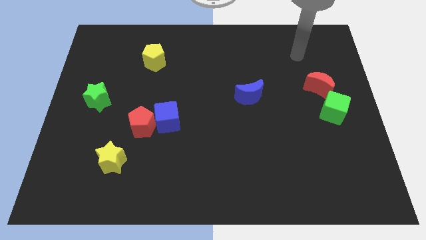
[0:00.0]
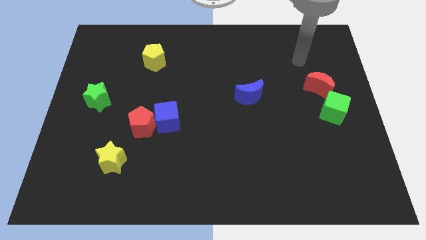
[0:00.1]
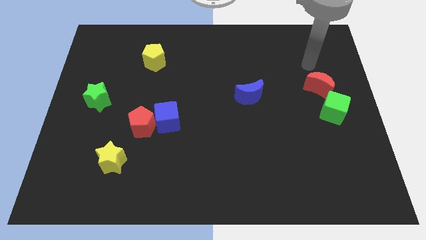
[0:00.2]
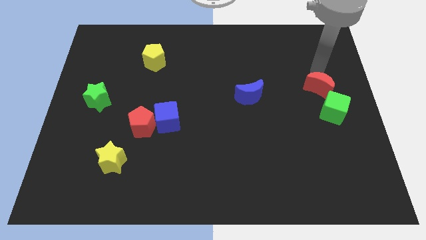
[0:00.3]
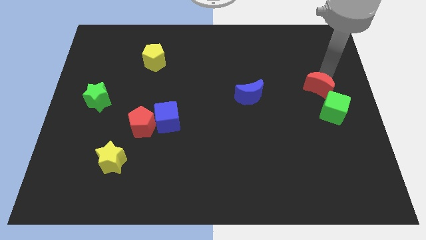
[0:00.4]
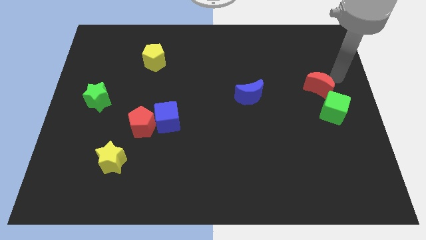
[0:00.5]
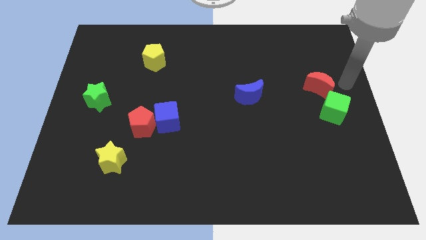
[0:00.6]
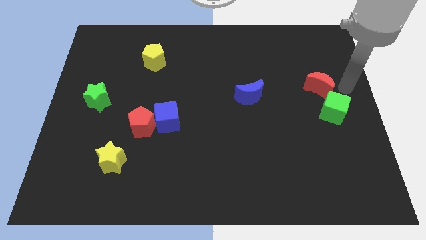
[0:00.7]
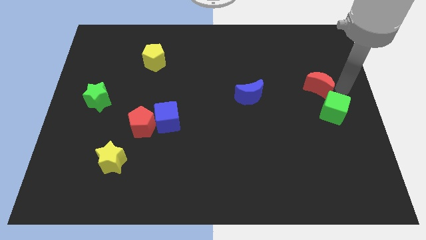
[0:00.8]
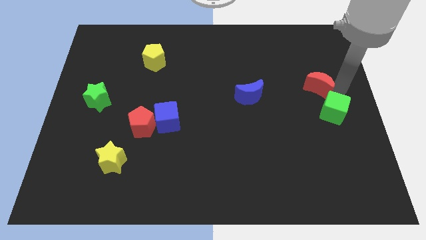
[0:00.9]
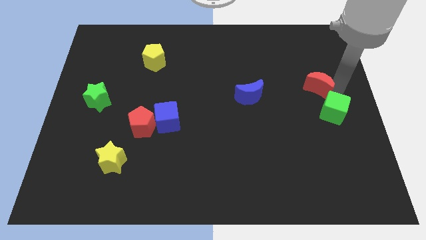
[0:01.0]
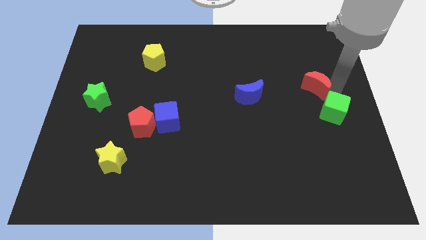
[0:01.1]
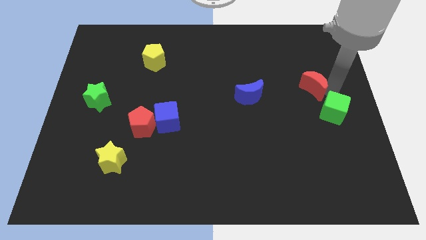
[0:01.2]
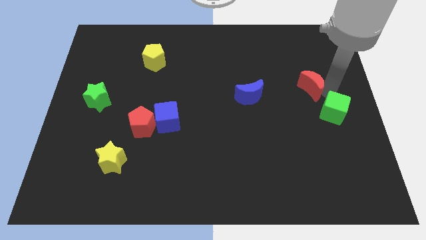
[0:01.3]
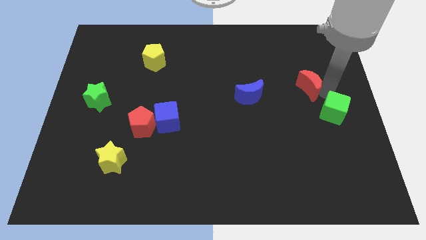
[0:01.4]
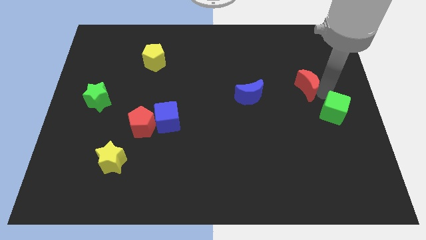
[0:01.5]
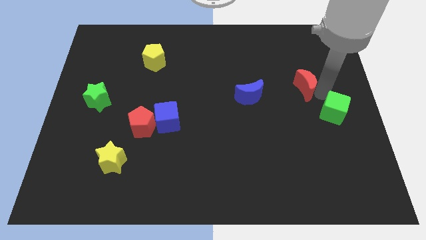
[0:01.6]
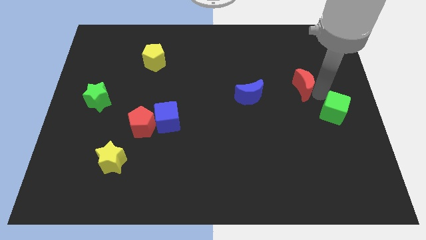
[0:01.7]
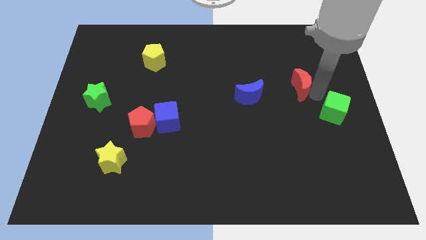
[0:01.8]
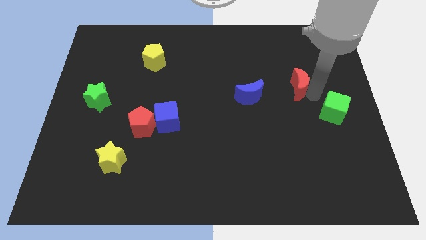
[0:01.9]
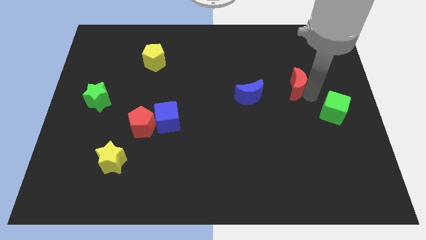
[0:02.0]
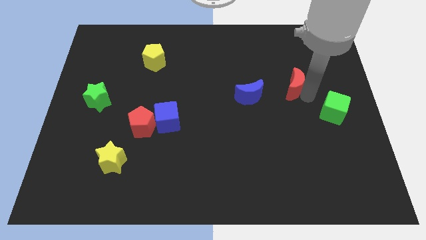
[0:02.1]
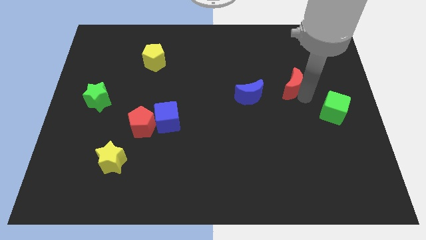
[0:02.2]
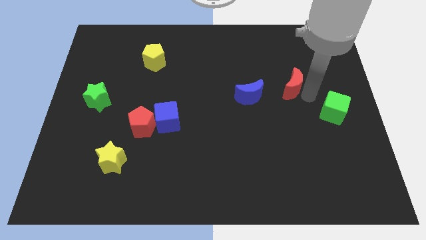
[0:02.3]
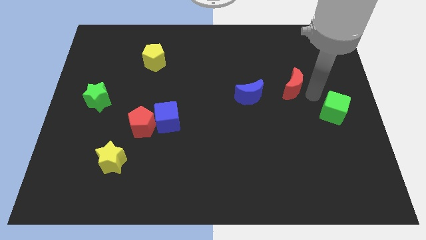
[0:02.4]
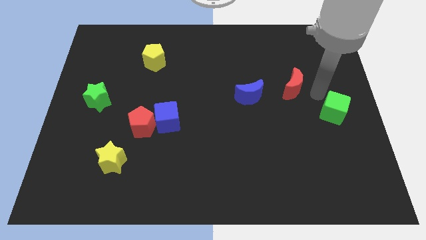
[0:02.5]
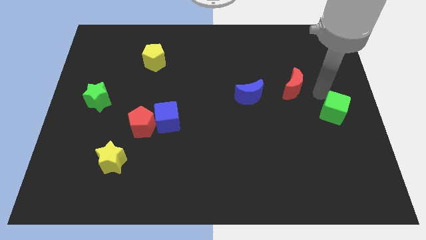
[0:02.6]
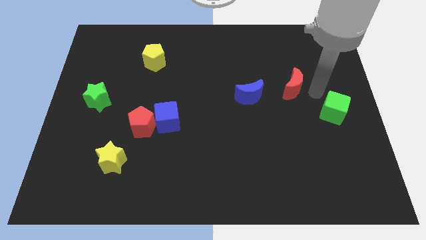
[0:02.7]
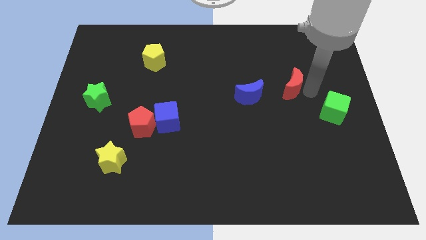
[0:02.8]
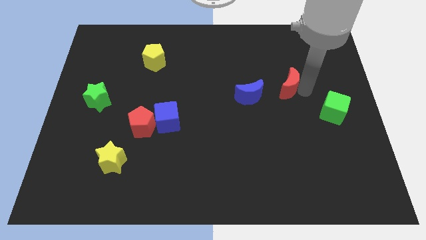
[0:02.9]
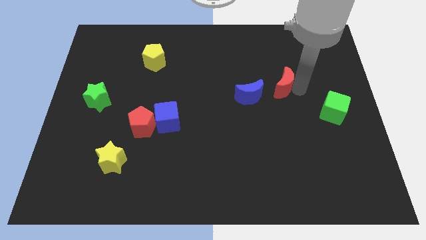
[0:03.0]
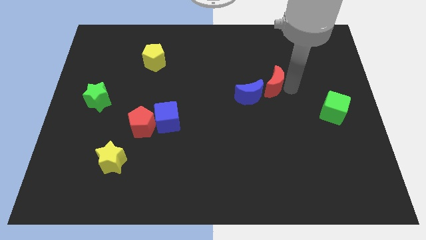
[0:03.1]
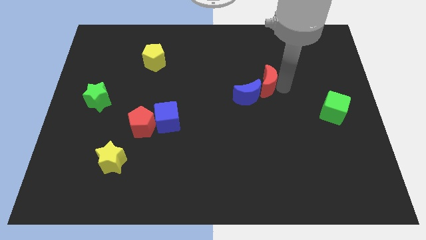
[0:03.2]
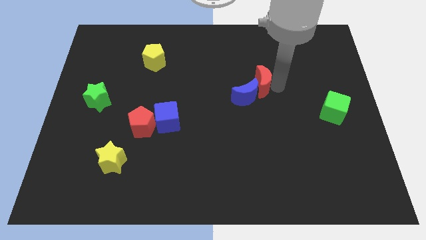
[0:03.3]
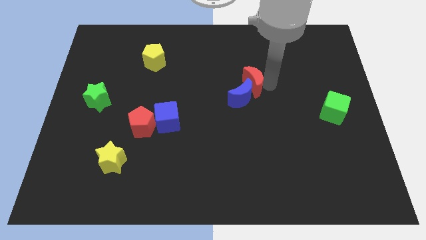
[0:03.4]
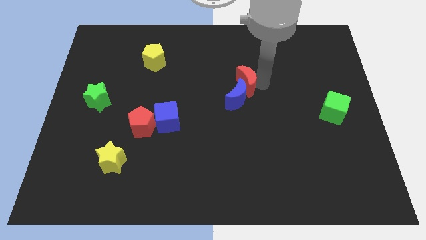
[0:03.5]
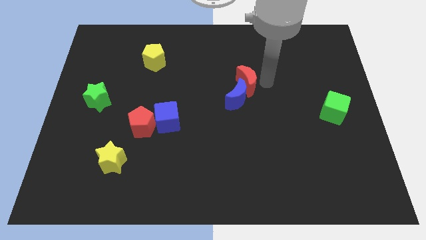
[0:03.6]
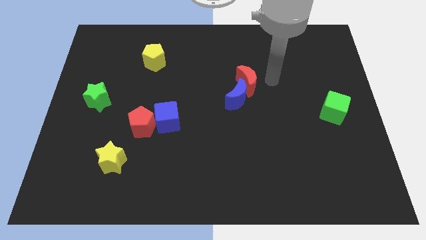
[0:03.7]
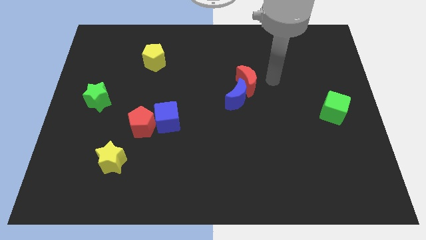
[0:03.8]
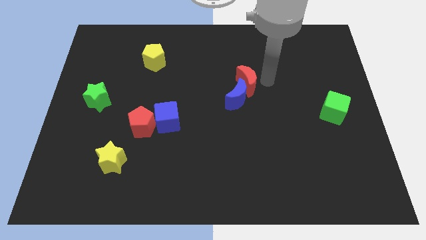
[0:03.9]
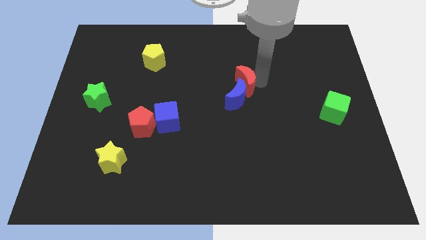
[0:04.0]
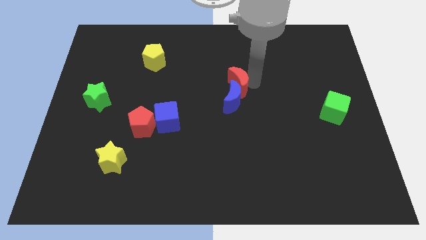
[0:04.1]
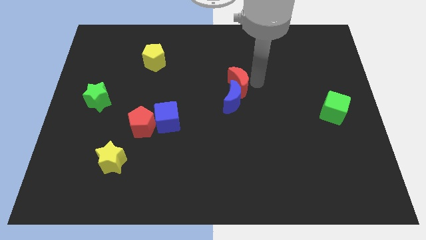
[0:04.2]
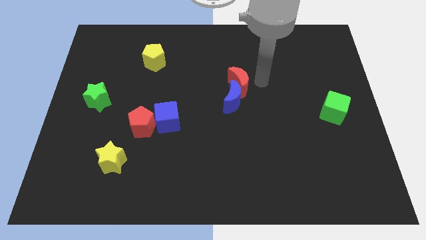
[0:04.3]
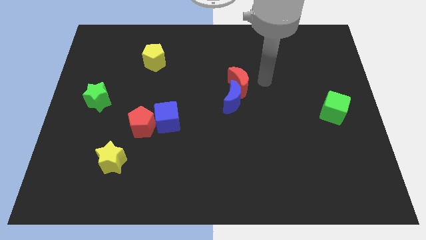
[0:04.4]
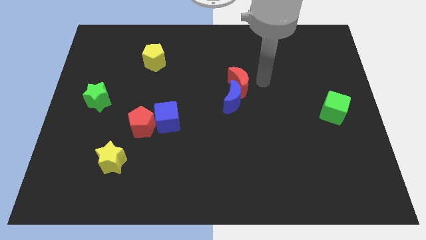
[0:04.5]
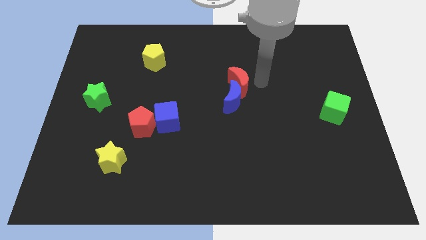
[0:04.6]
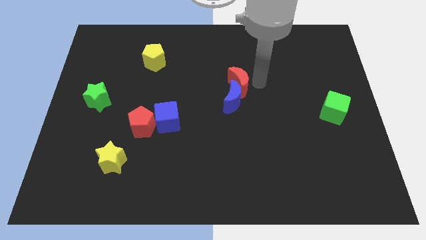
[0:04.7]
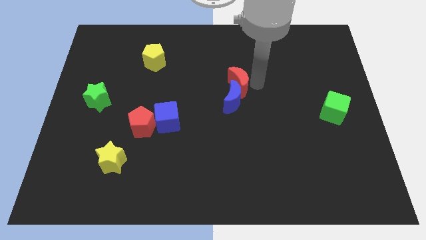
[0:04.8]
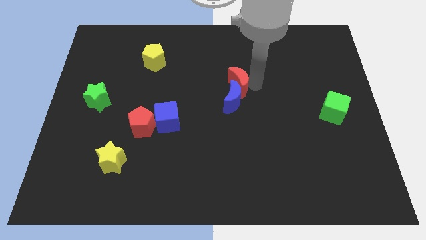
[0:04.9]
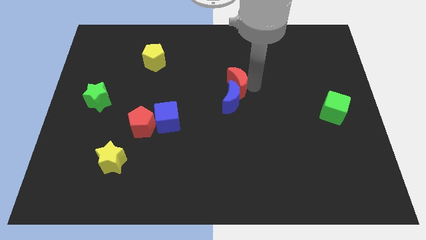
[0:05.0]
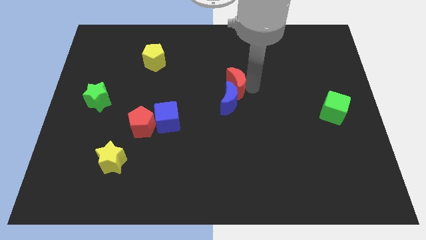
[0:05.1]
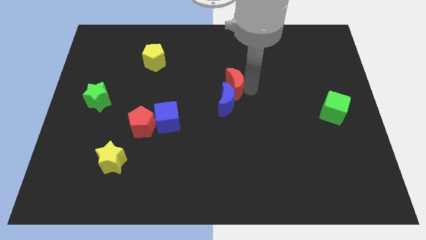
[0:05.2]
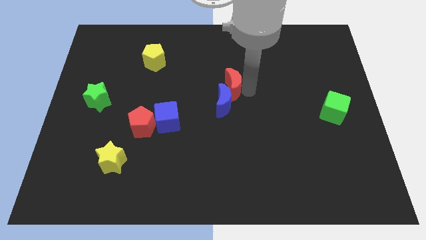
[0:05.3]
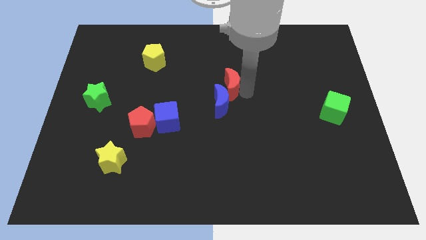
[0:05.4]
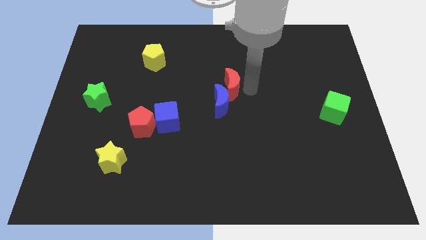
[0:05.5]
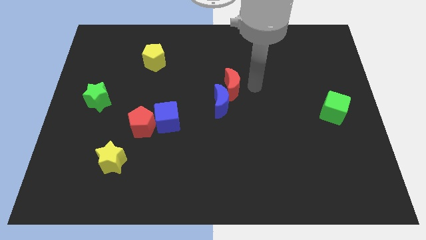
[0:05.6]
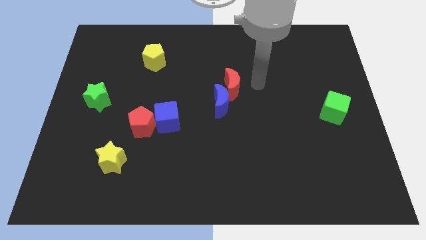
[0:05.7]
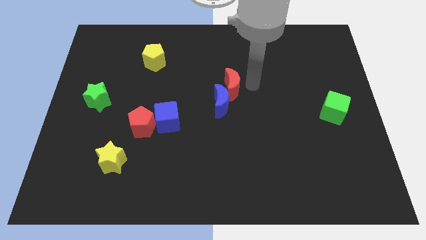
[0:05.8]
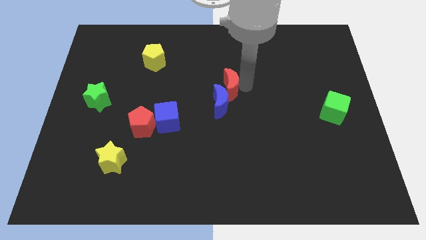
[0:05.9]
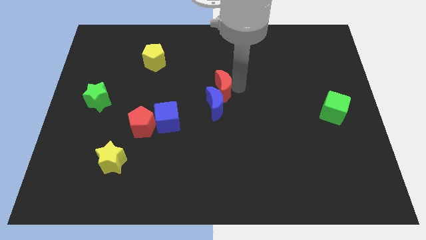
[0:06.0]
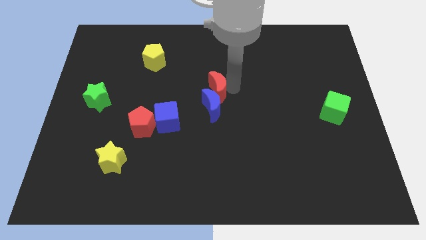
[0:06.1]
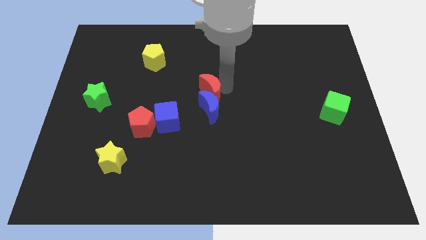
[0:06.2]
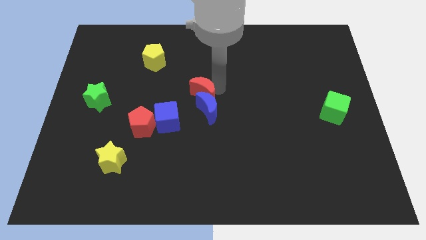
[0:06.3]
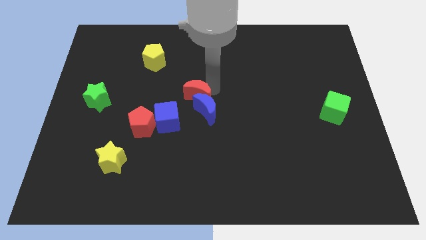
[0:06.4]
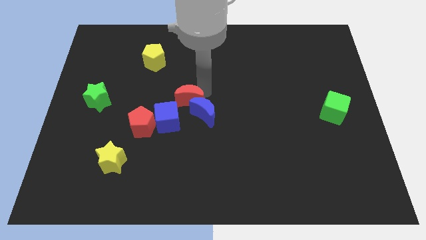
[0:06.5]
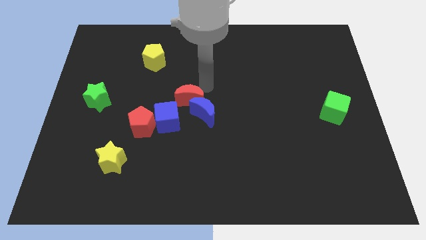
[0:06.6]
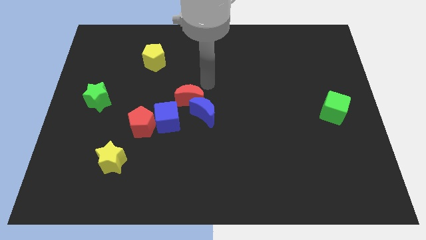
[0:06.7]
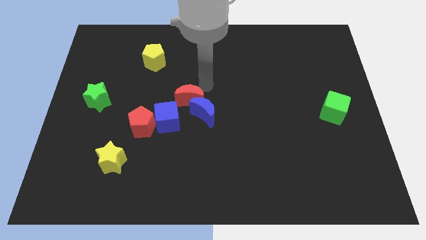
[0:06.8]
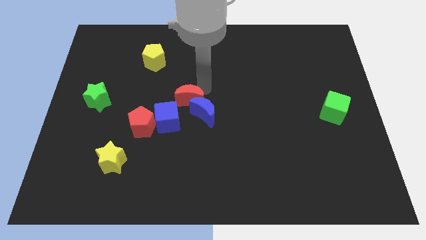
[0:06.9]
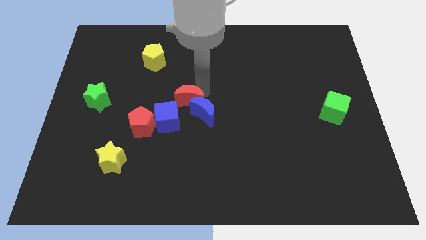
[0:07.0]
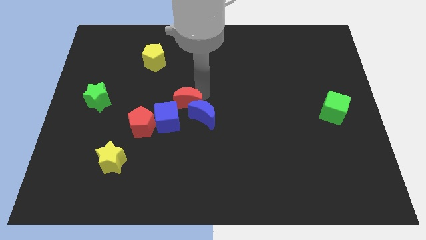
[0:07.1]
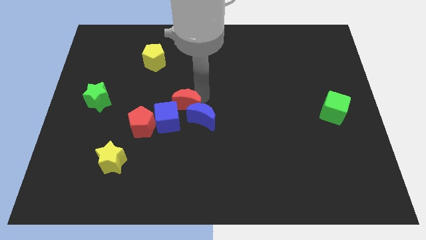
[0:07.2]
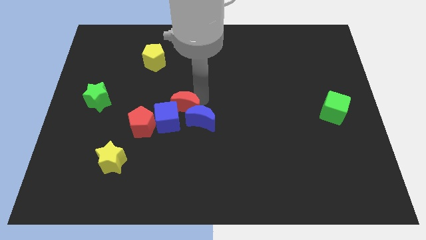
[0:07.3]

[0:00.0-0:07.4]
move the red moon next to the blue cube

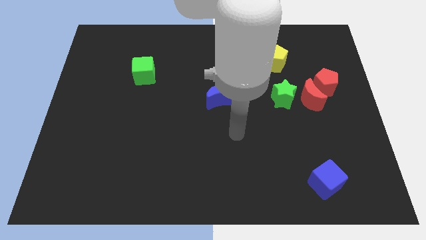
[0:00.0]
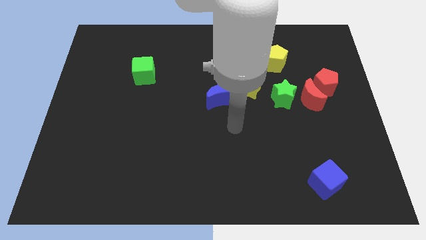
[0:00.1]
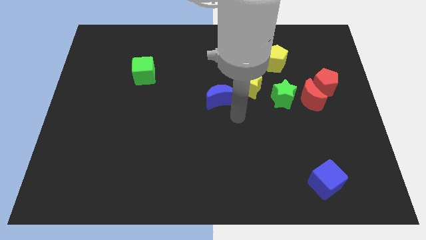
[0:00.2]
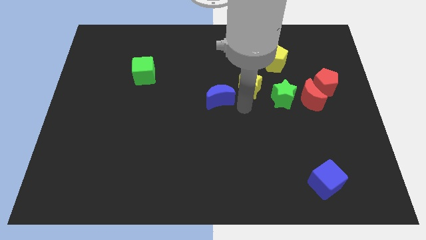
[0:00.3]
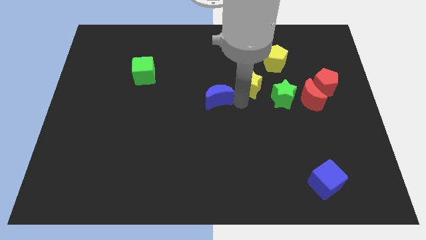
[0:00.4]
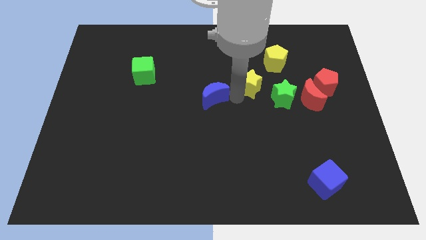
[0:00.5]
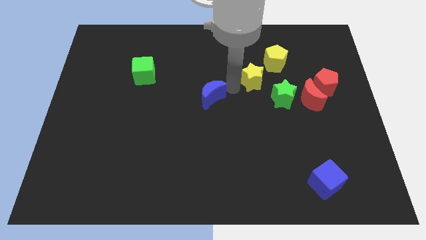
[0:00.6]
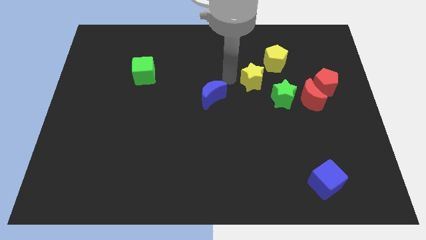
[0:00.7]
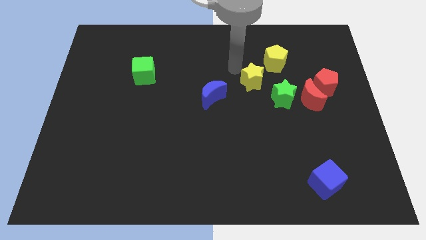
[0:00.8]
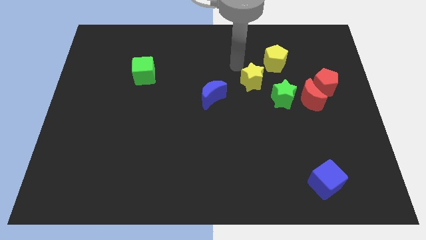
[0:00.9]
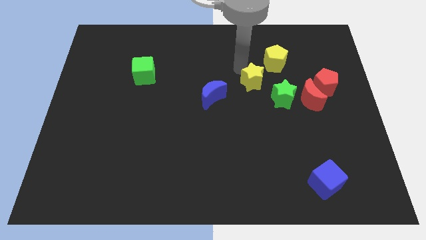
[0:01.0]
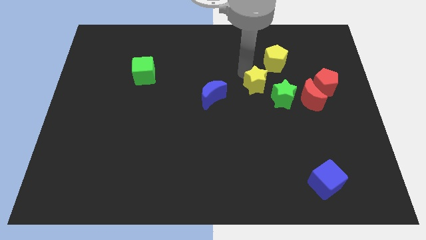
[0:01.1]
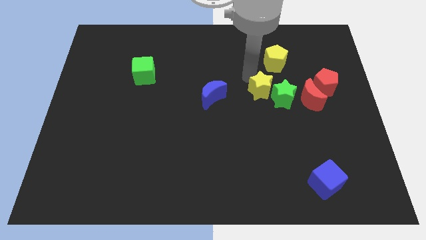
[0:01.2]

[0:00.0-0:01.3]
push the yellow star next to the green star
